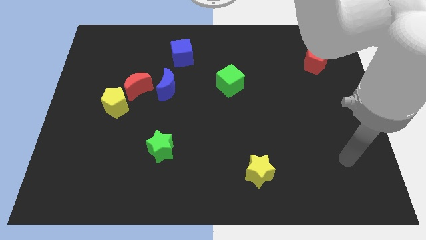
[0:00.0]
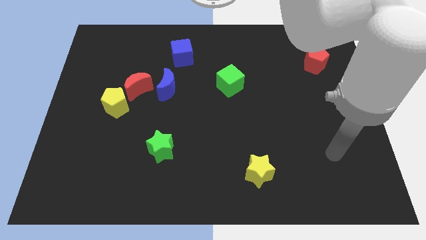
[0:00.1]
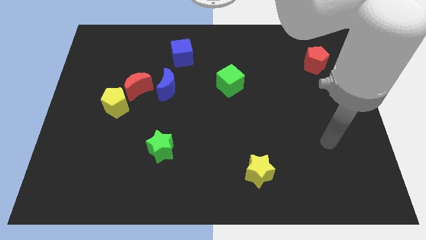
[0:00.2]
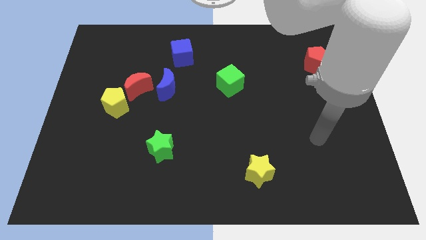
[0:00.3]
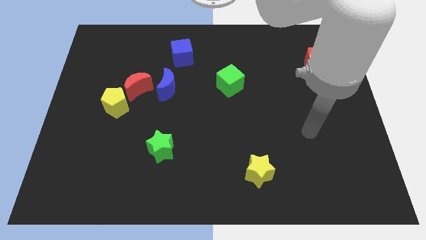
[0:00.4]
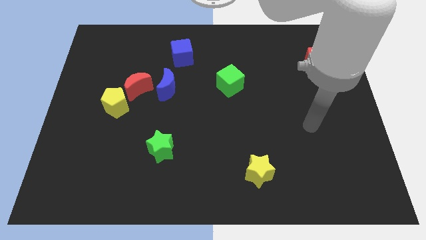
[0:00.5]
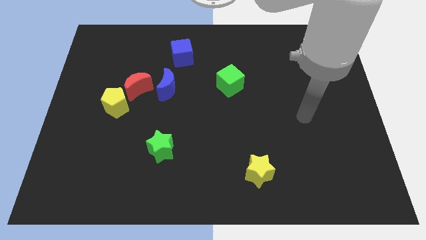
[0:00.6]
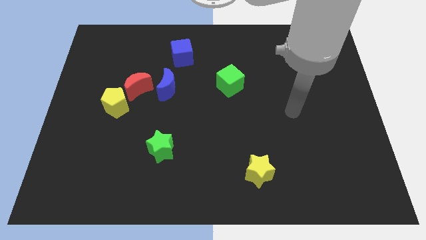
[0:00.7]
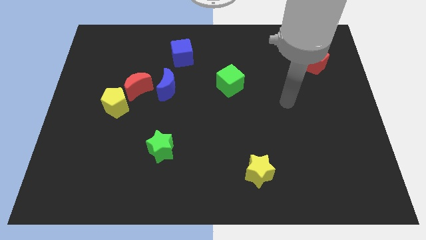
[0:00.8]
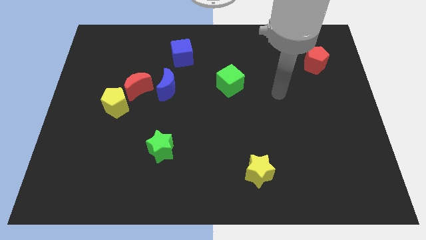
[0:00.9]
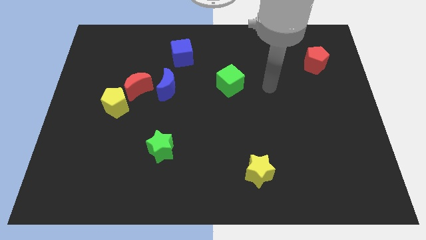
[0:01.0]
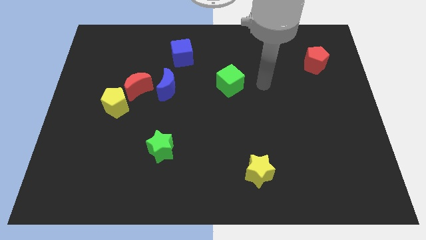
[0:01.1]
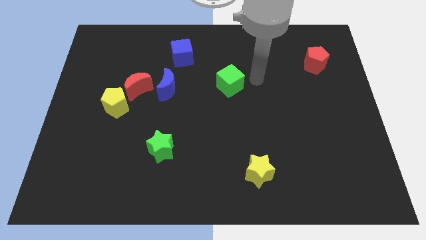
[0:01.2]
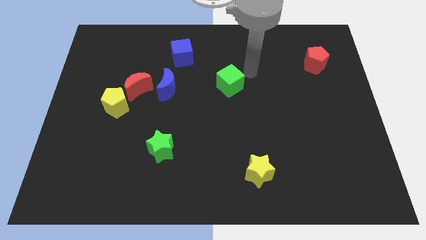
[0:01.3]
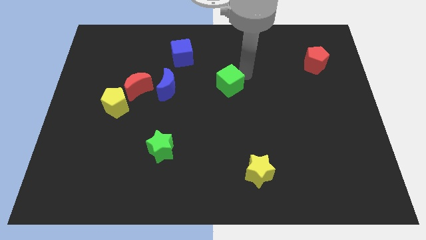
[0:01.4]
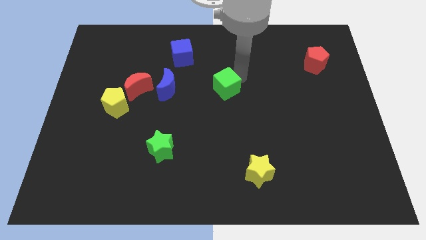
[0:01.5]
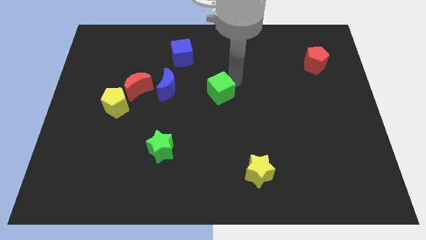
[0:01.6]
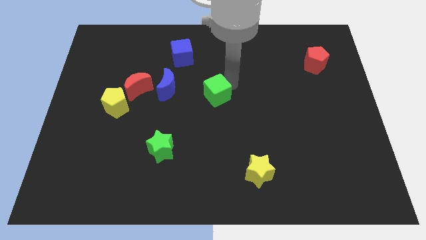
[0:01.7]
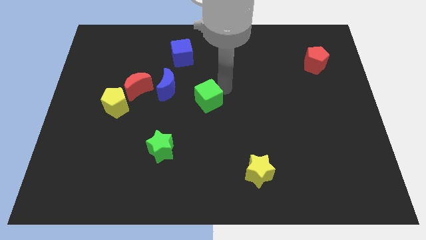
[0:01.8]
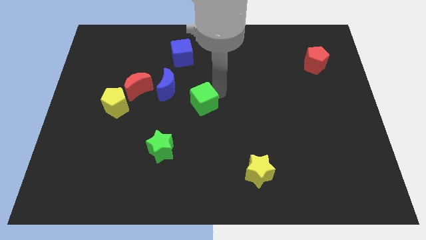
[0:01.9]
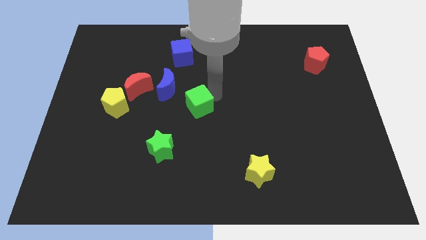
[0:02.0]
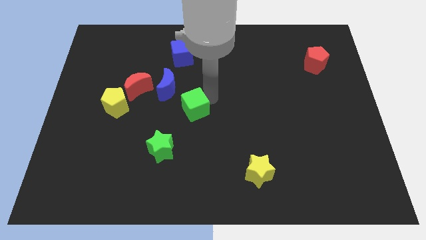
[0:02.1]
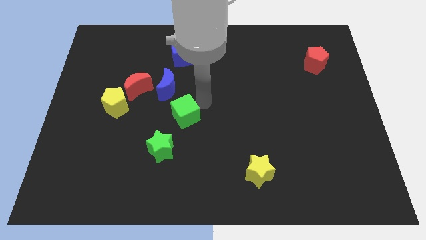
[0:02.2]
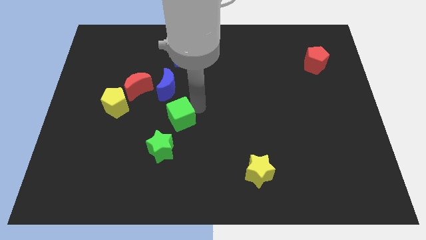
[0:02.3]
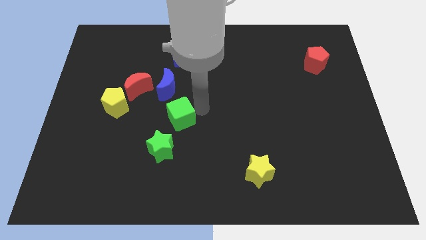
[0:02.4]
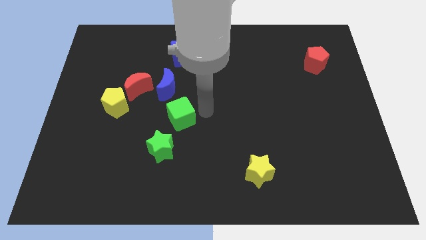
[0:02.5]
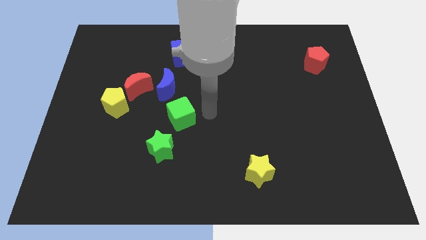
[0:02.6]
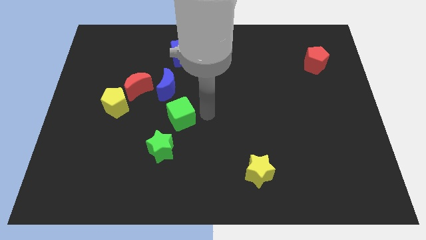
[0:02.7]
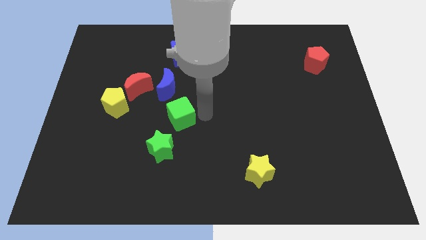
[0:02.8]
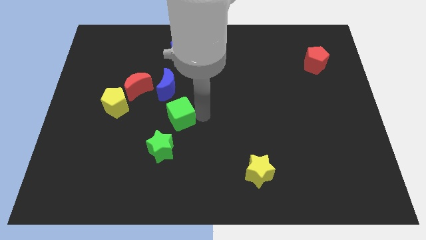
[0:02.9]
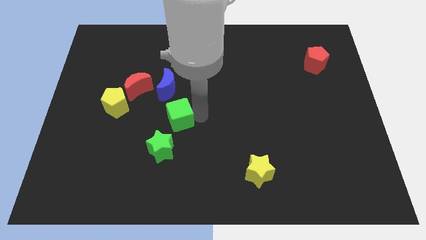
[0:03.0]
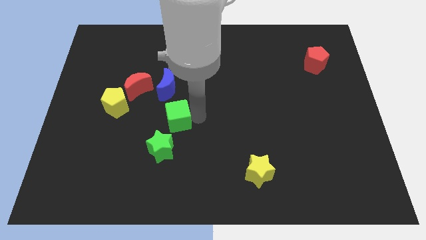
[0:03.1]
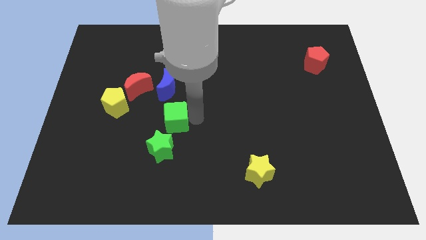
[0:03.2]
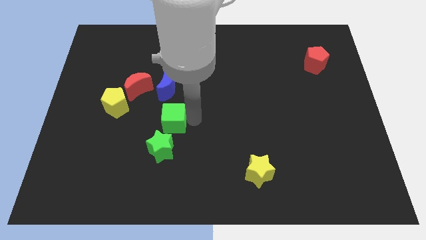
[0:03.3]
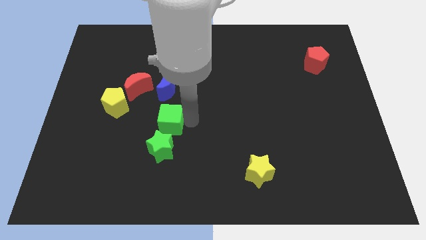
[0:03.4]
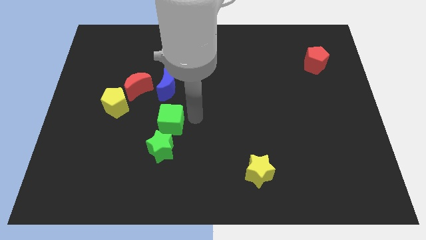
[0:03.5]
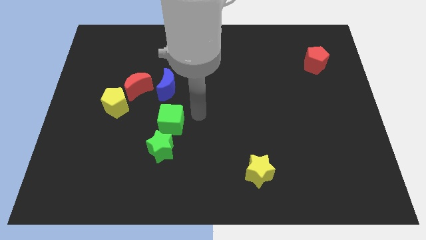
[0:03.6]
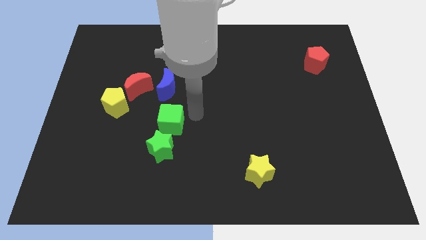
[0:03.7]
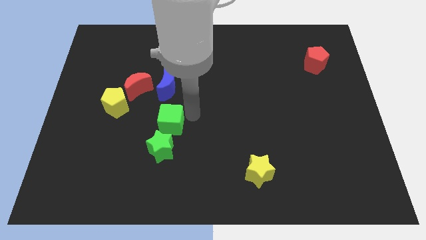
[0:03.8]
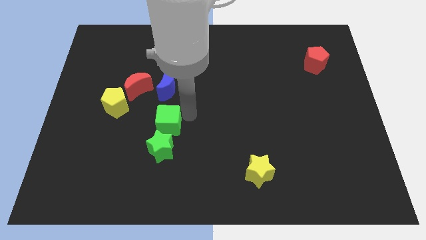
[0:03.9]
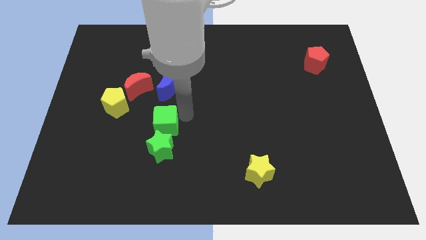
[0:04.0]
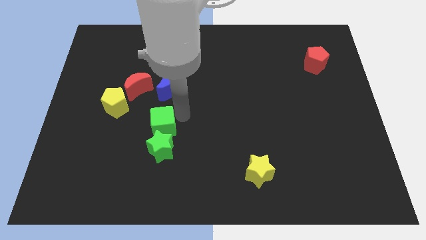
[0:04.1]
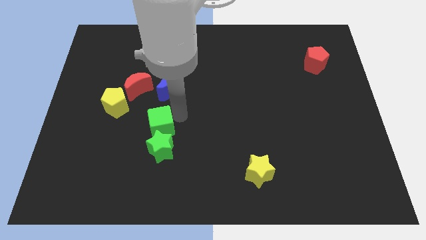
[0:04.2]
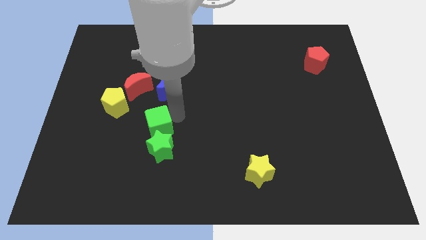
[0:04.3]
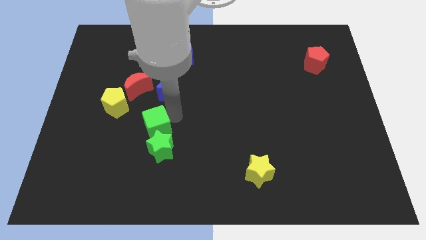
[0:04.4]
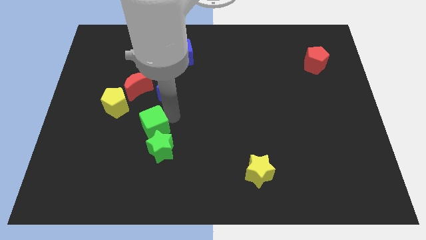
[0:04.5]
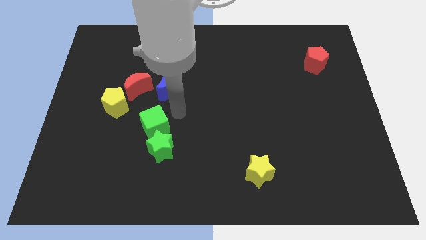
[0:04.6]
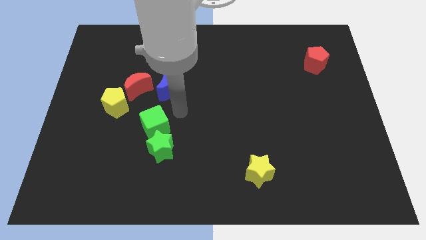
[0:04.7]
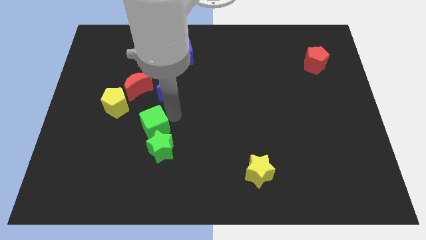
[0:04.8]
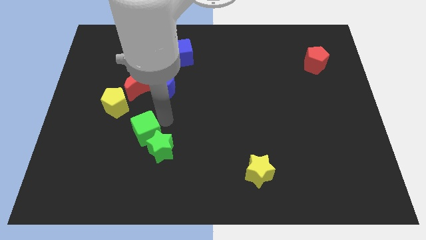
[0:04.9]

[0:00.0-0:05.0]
push the green cube to the left of the green star

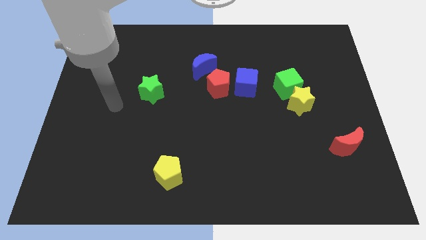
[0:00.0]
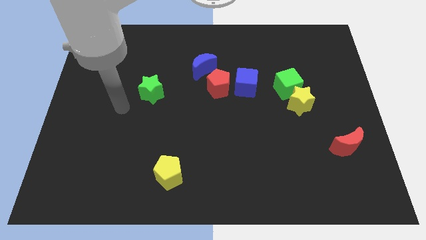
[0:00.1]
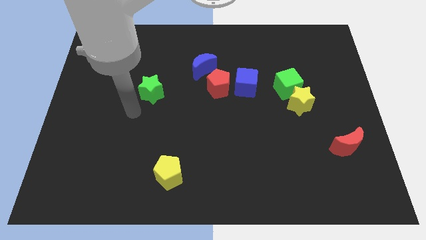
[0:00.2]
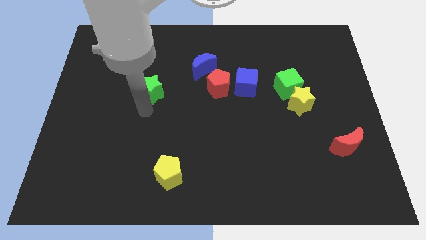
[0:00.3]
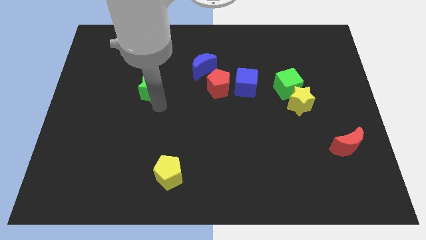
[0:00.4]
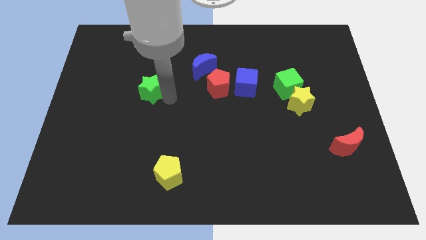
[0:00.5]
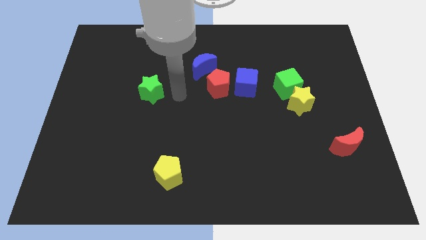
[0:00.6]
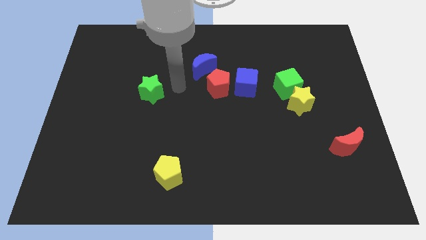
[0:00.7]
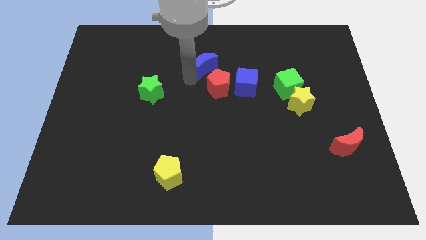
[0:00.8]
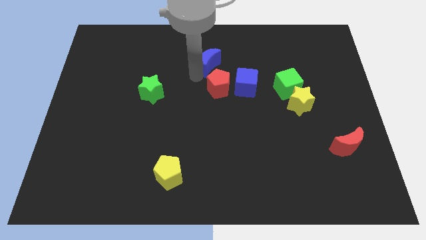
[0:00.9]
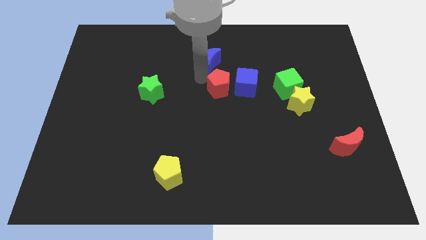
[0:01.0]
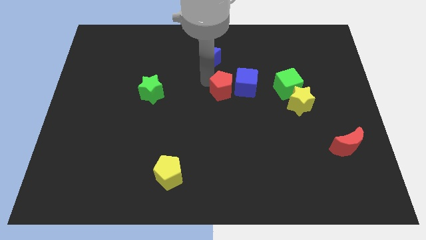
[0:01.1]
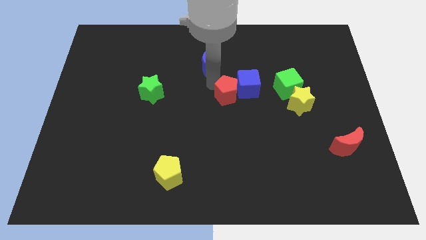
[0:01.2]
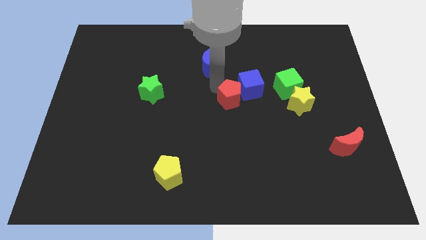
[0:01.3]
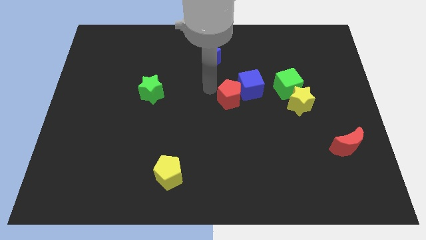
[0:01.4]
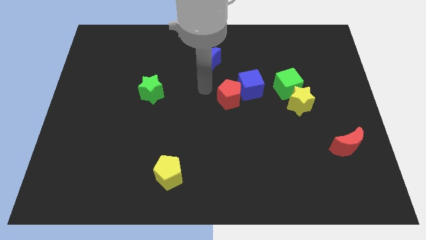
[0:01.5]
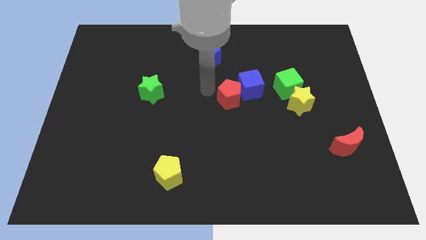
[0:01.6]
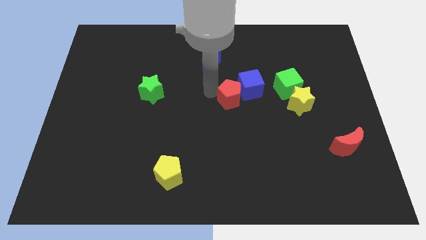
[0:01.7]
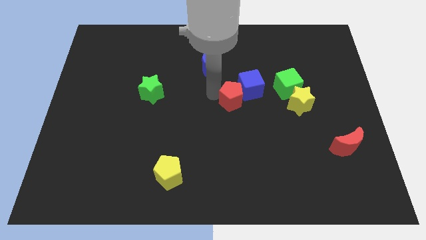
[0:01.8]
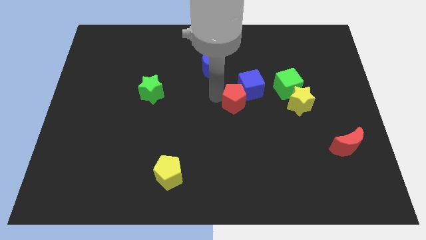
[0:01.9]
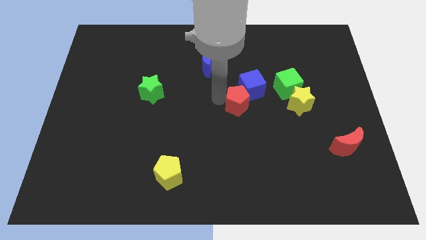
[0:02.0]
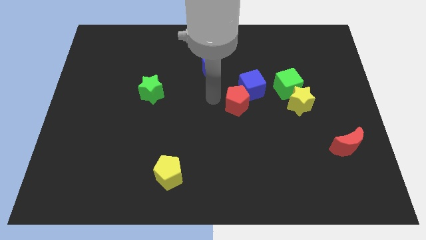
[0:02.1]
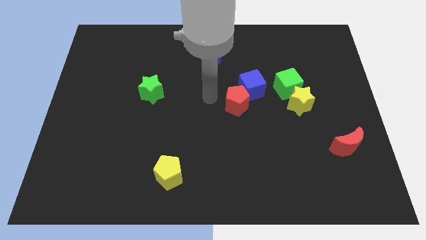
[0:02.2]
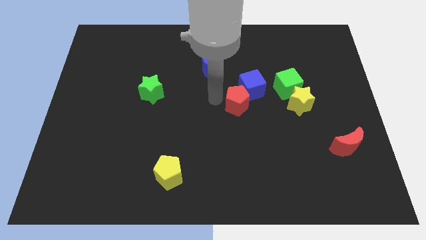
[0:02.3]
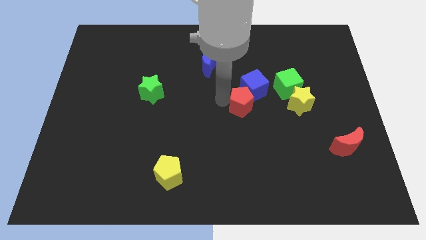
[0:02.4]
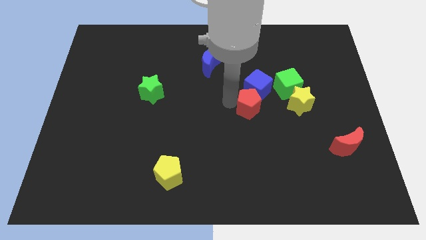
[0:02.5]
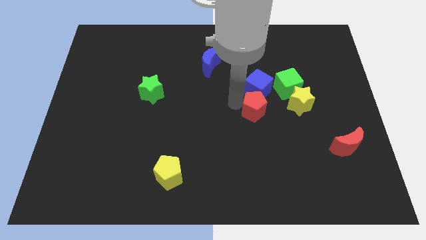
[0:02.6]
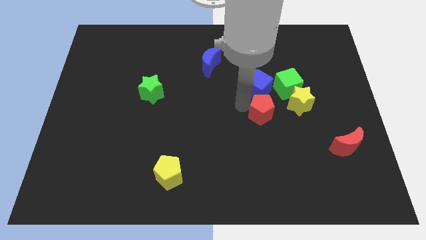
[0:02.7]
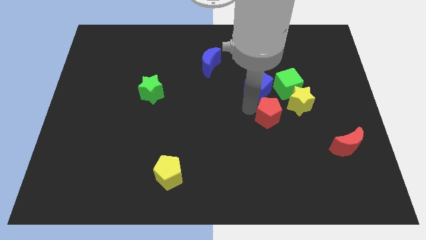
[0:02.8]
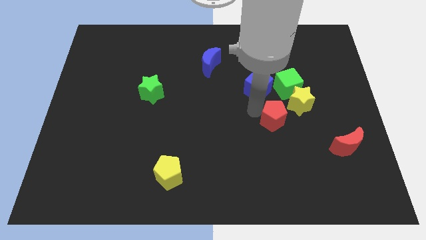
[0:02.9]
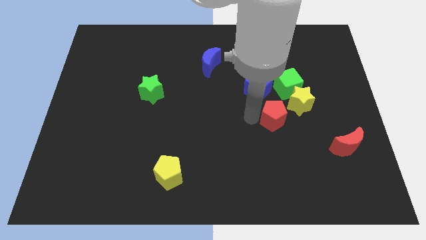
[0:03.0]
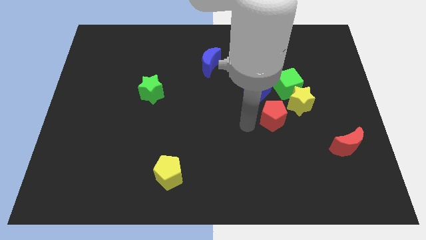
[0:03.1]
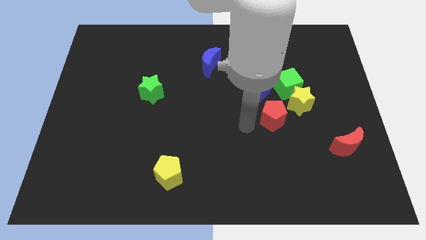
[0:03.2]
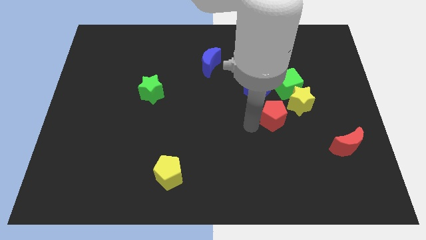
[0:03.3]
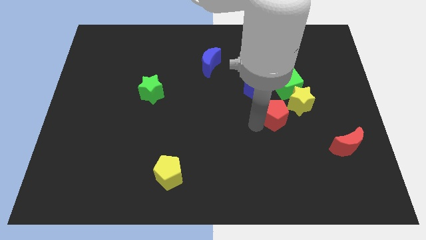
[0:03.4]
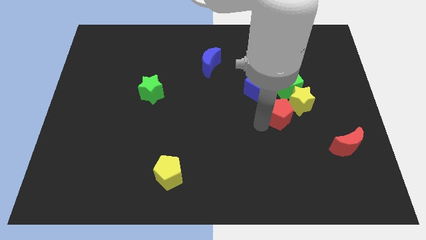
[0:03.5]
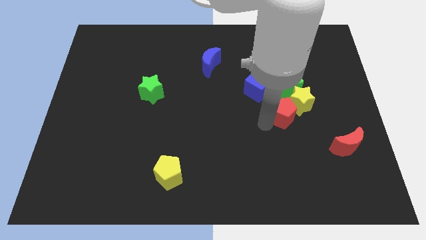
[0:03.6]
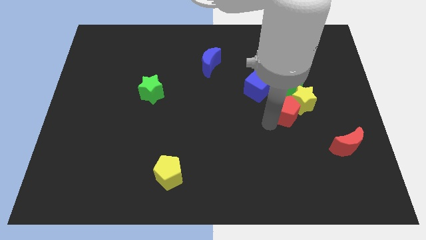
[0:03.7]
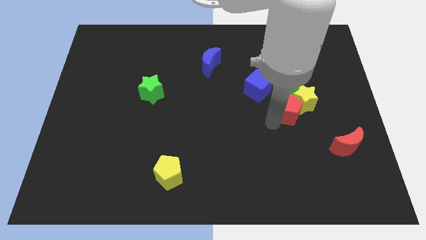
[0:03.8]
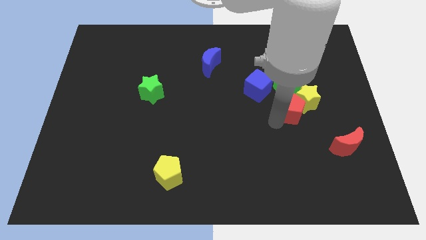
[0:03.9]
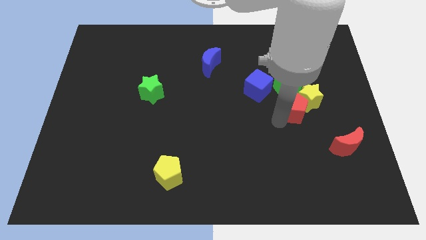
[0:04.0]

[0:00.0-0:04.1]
push the red pentagon to the bottom right of the green cube
